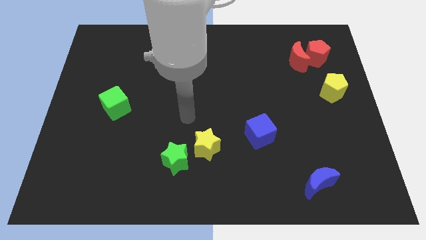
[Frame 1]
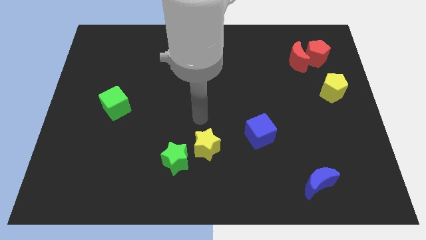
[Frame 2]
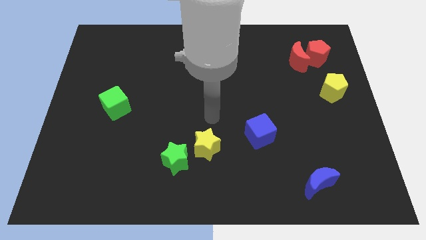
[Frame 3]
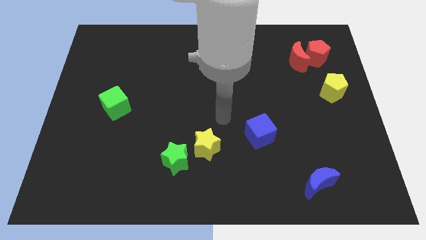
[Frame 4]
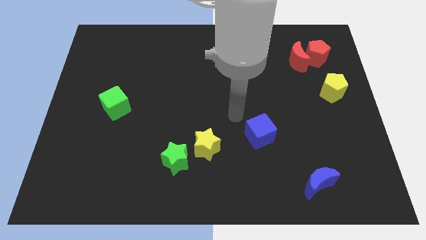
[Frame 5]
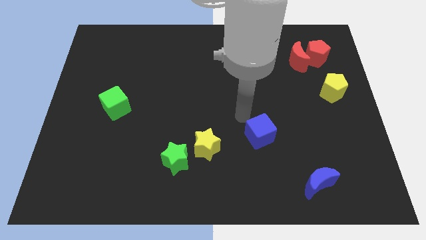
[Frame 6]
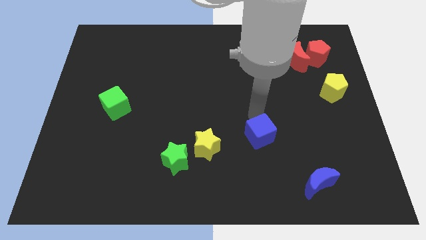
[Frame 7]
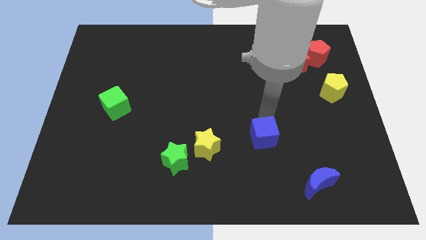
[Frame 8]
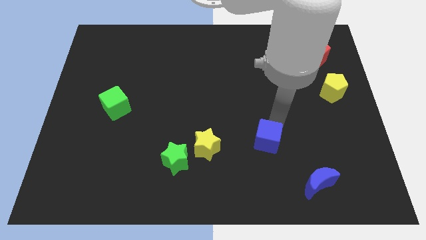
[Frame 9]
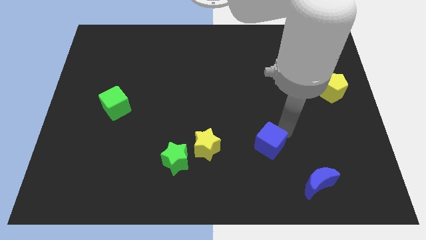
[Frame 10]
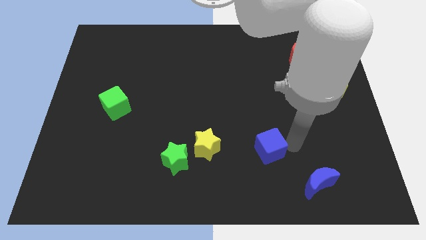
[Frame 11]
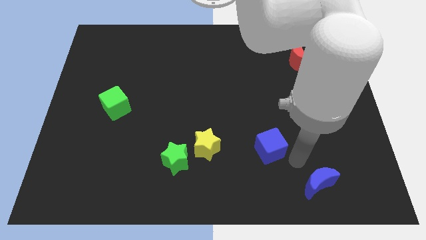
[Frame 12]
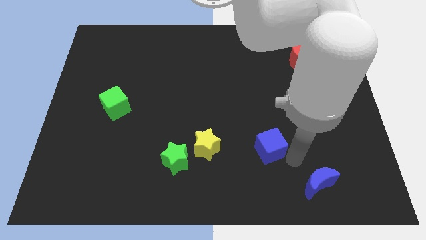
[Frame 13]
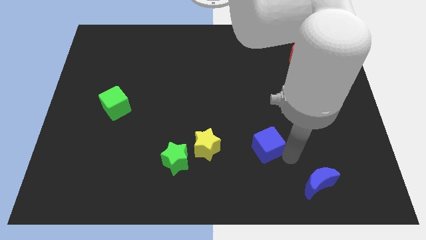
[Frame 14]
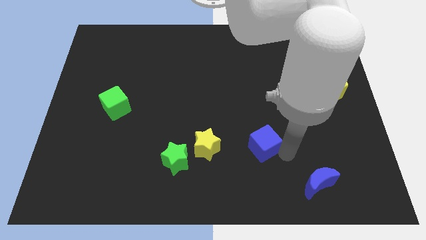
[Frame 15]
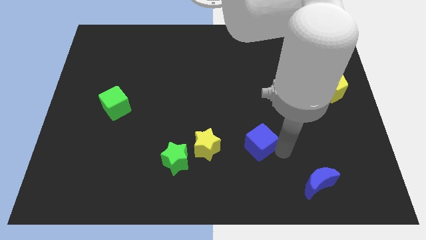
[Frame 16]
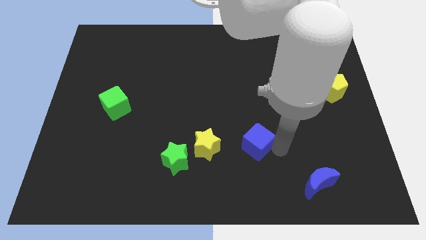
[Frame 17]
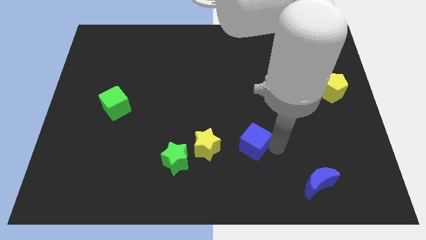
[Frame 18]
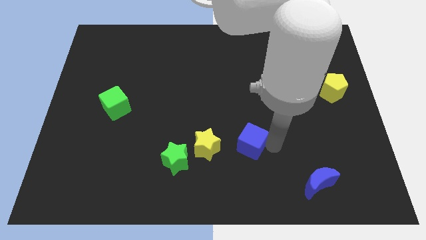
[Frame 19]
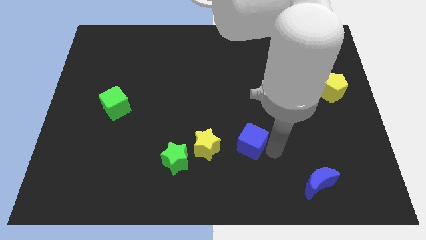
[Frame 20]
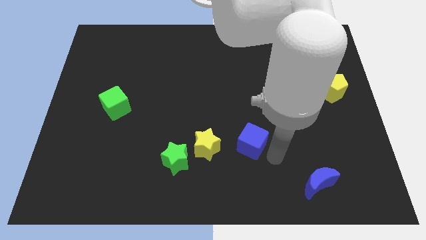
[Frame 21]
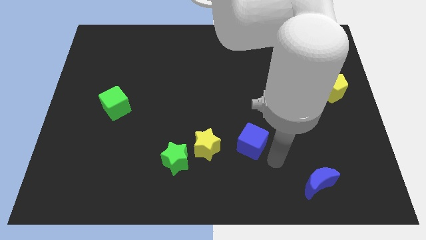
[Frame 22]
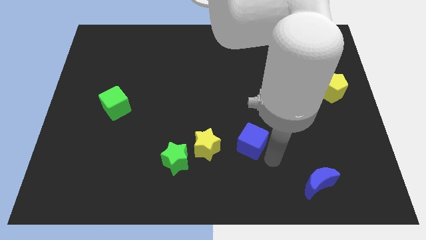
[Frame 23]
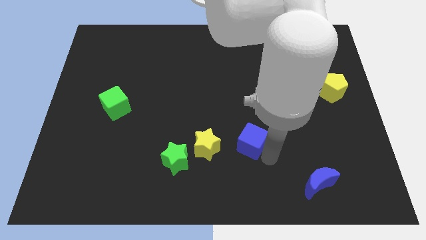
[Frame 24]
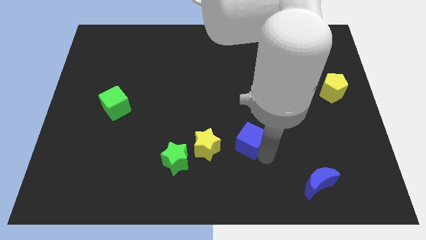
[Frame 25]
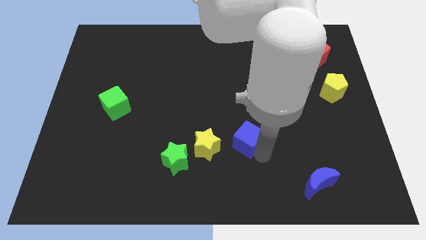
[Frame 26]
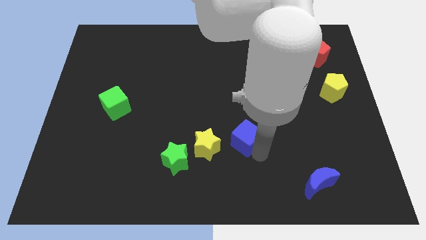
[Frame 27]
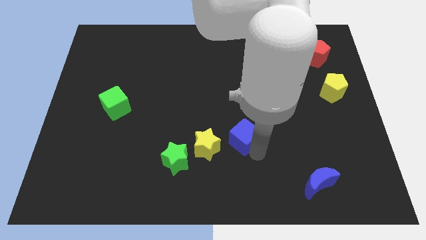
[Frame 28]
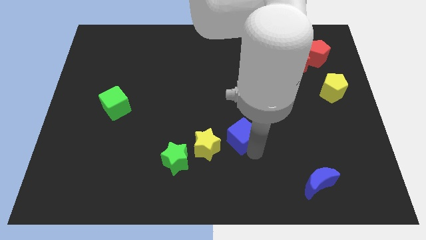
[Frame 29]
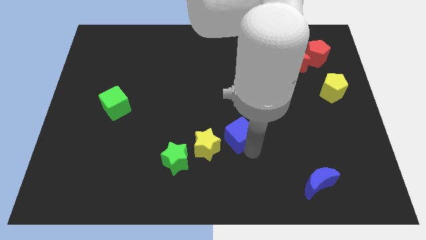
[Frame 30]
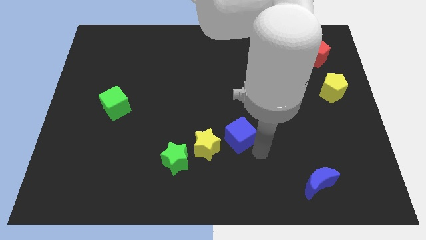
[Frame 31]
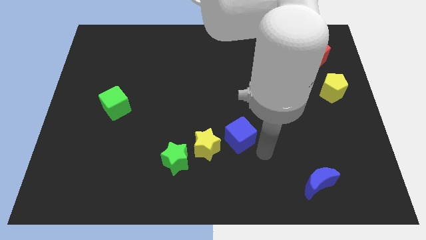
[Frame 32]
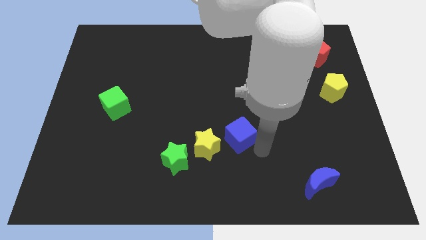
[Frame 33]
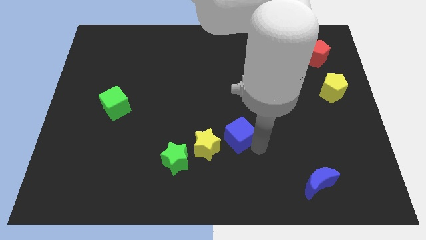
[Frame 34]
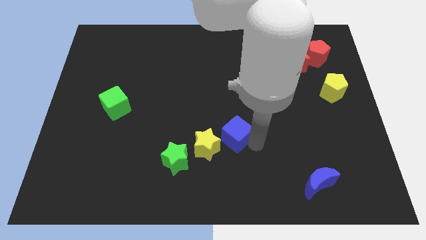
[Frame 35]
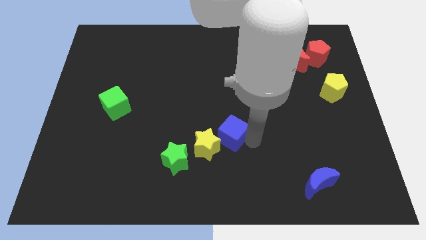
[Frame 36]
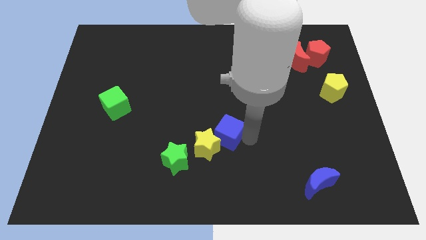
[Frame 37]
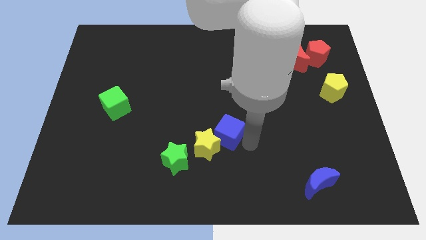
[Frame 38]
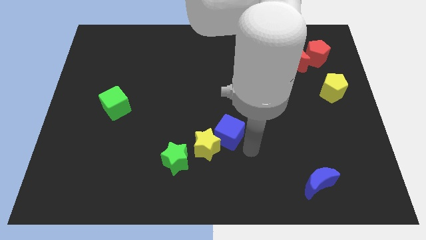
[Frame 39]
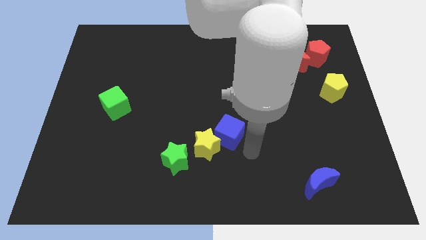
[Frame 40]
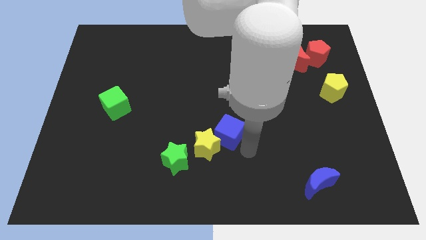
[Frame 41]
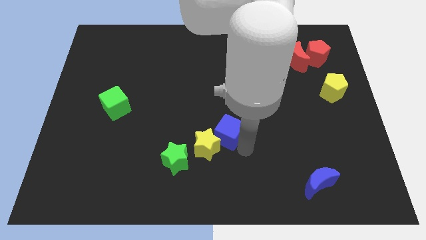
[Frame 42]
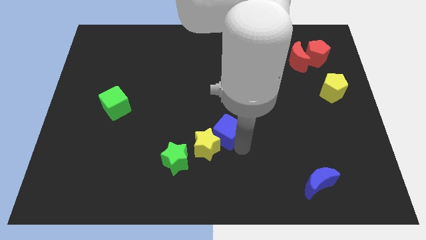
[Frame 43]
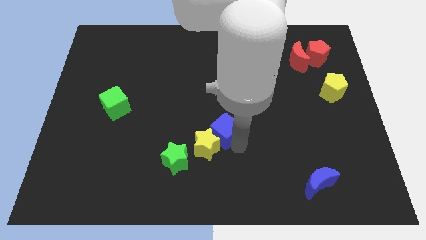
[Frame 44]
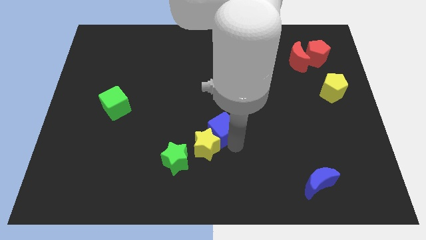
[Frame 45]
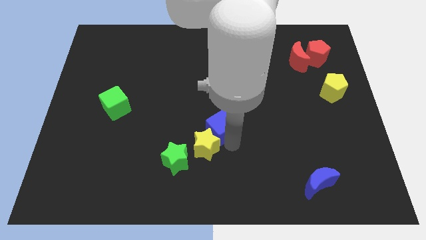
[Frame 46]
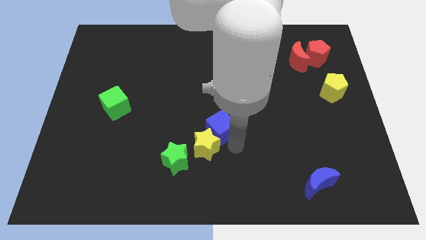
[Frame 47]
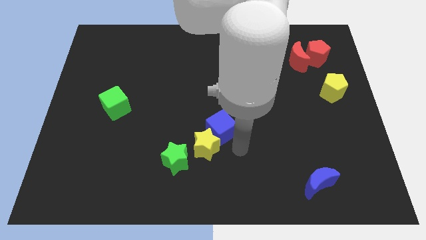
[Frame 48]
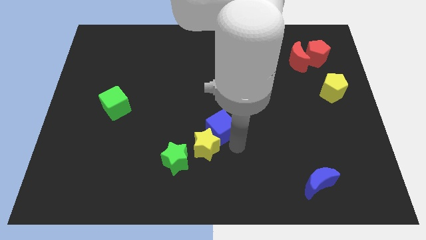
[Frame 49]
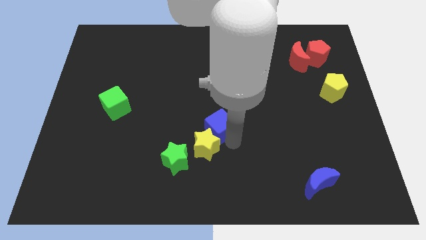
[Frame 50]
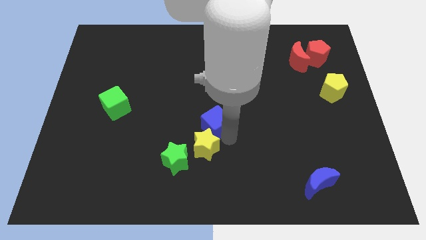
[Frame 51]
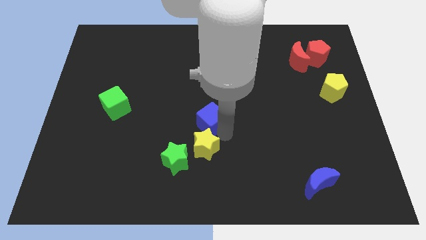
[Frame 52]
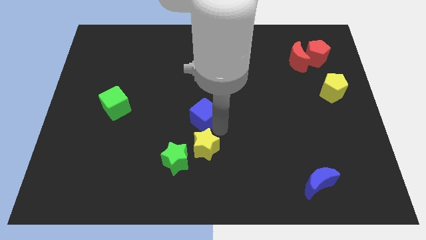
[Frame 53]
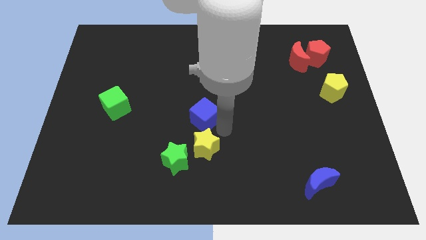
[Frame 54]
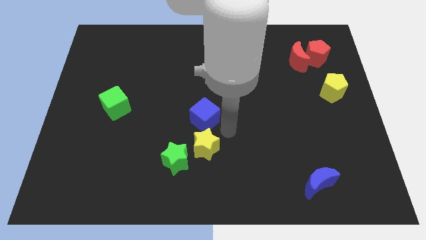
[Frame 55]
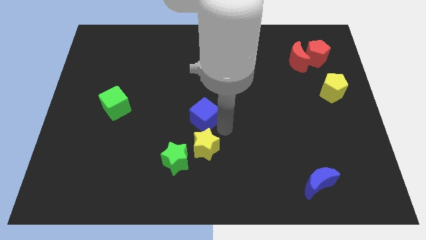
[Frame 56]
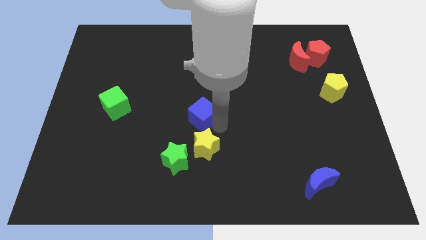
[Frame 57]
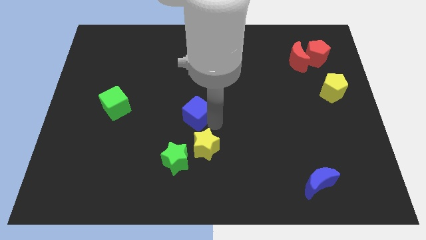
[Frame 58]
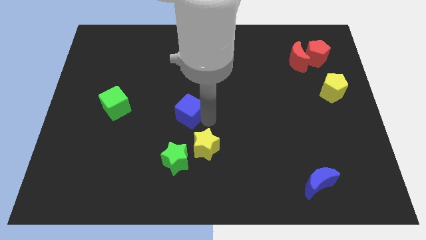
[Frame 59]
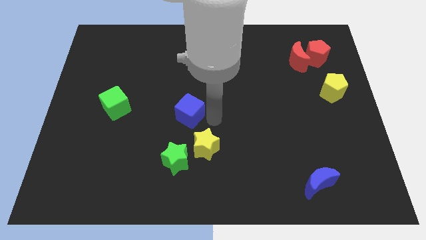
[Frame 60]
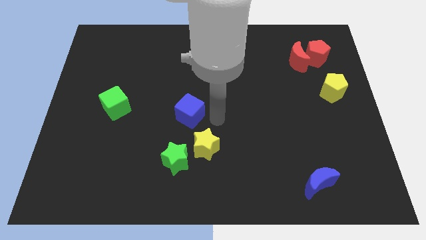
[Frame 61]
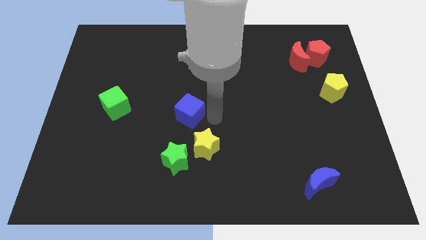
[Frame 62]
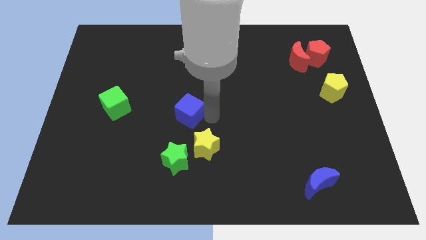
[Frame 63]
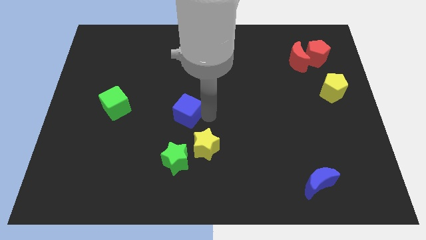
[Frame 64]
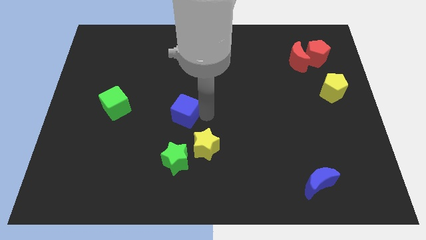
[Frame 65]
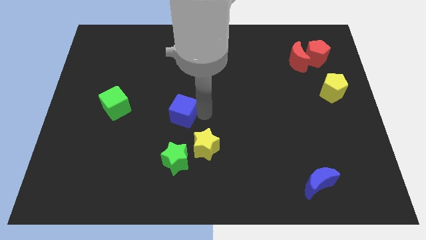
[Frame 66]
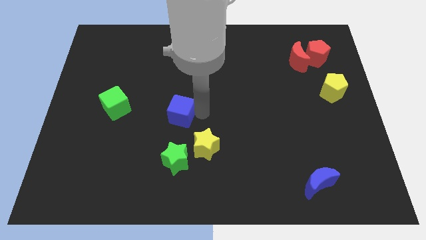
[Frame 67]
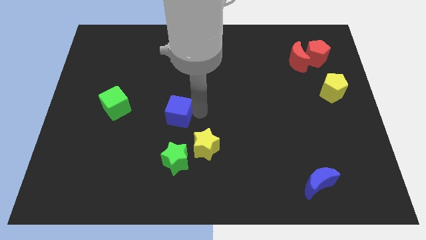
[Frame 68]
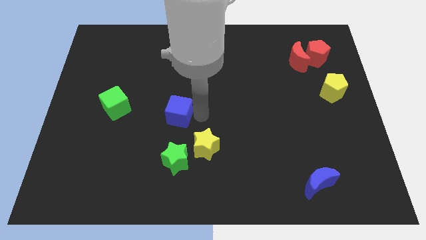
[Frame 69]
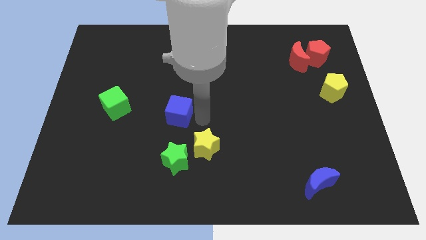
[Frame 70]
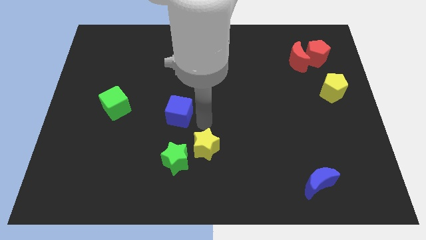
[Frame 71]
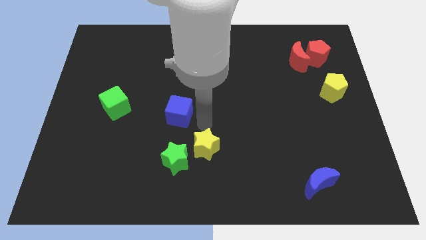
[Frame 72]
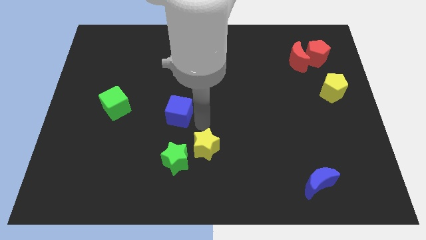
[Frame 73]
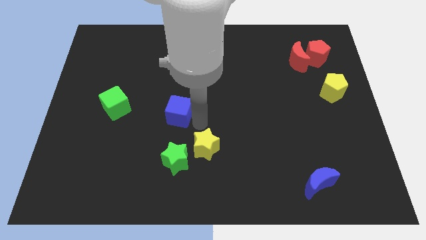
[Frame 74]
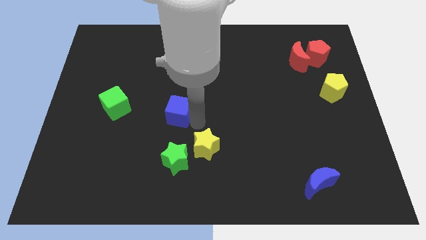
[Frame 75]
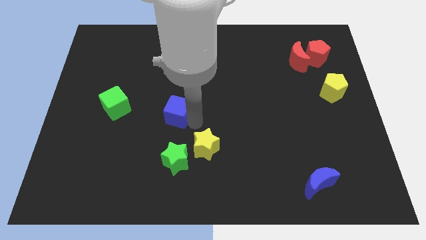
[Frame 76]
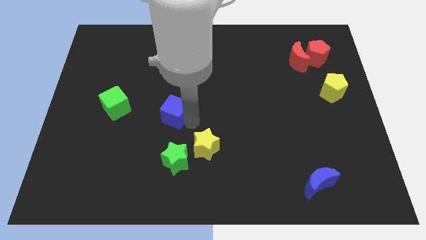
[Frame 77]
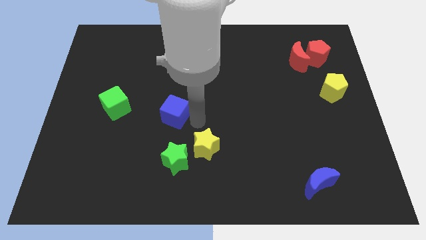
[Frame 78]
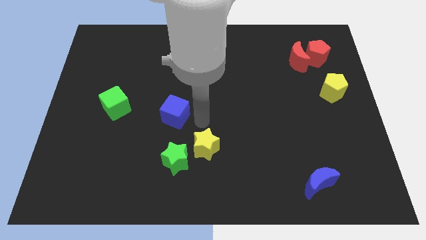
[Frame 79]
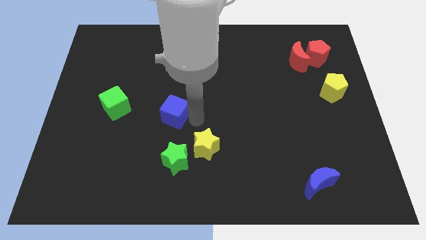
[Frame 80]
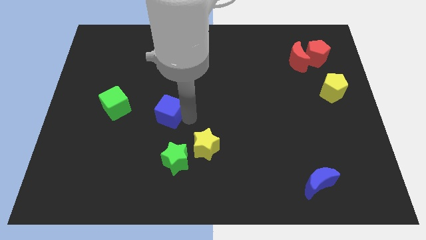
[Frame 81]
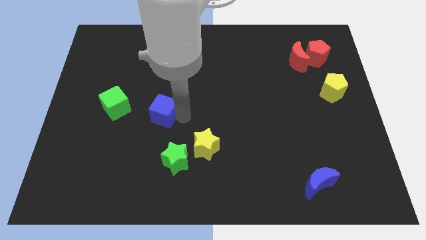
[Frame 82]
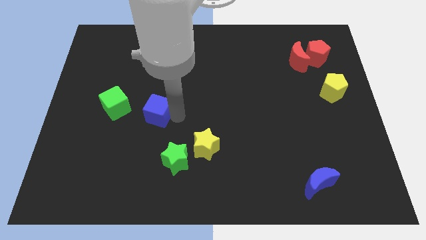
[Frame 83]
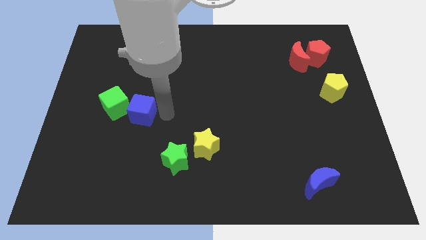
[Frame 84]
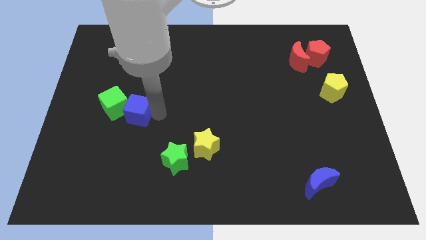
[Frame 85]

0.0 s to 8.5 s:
push the blue cube to the green cube
